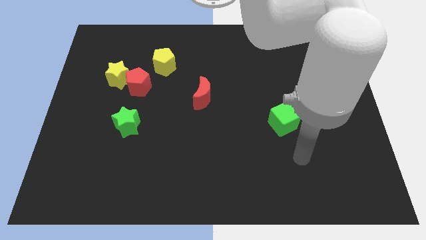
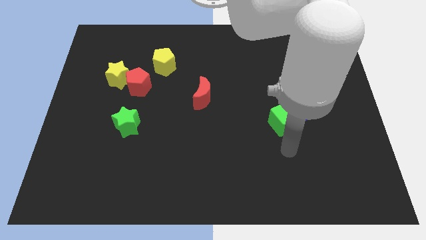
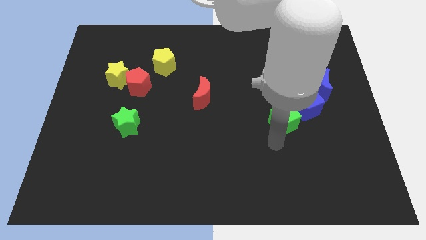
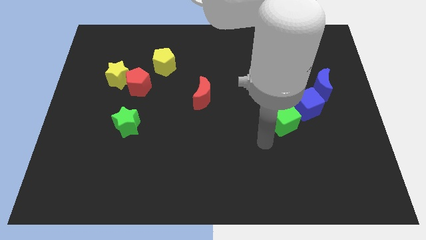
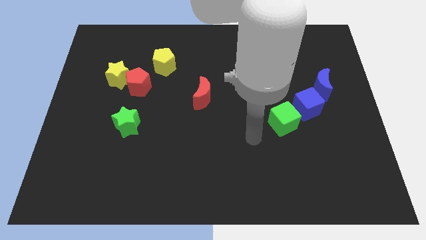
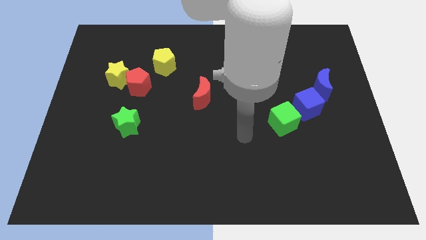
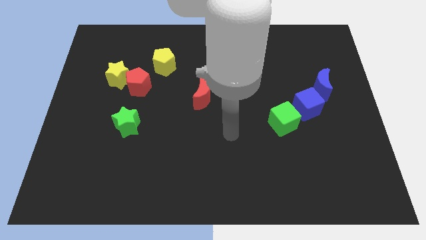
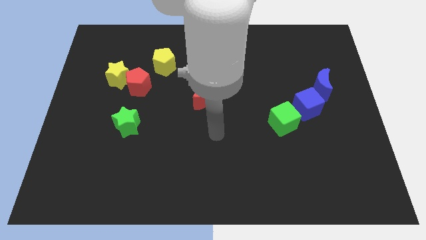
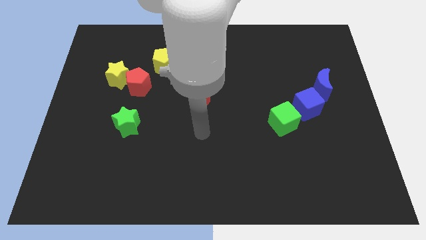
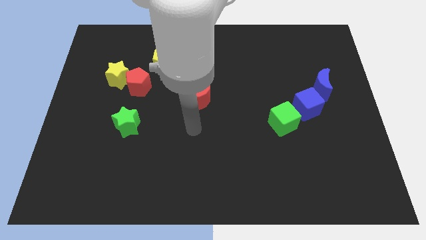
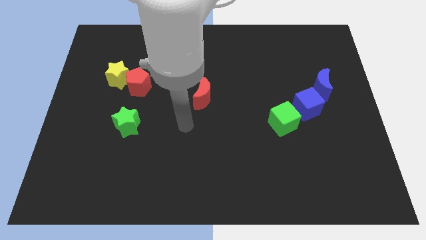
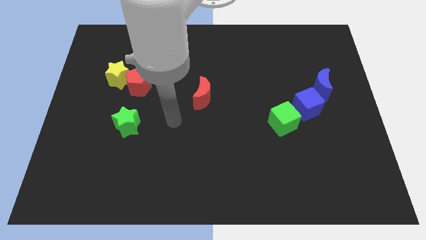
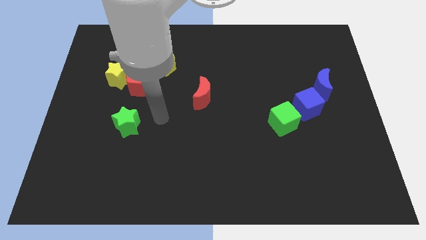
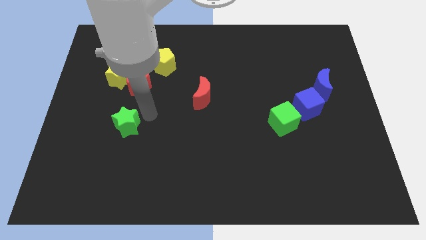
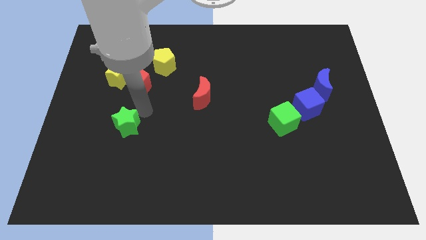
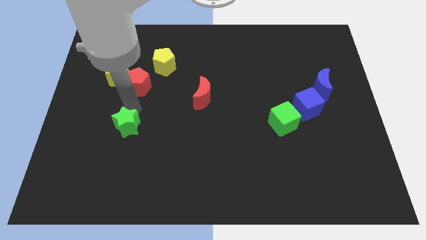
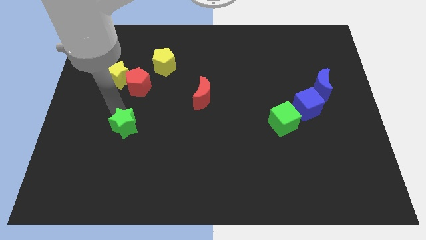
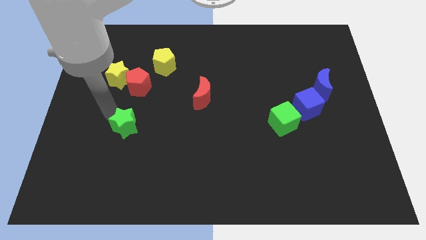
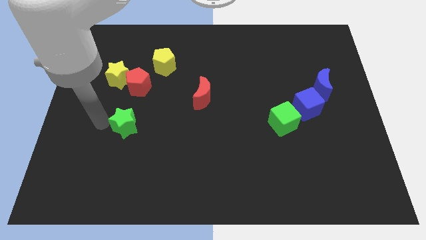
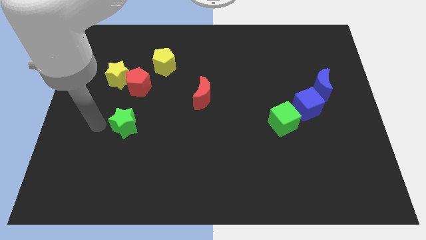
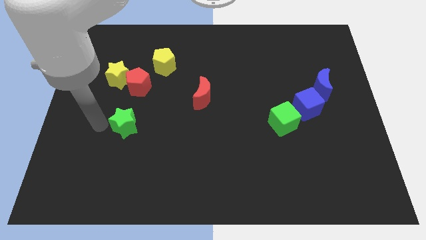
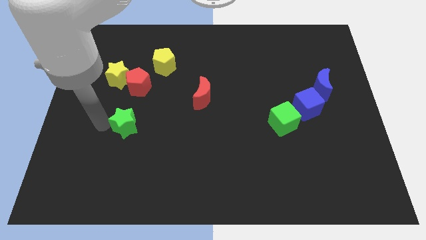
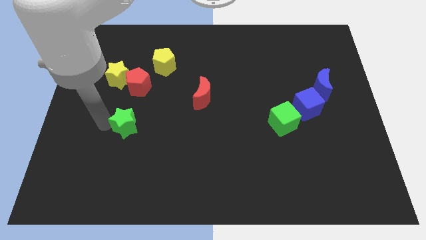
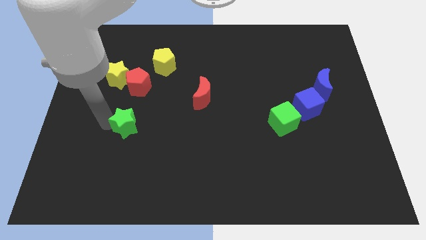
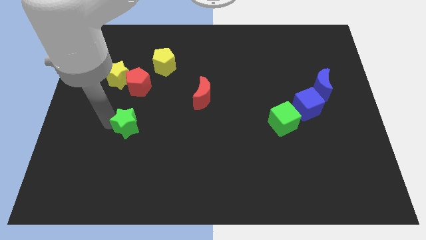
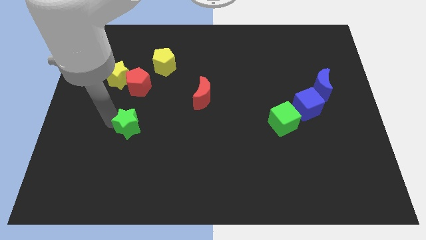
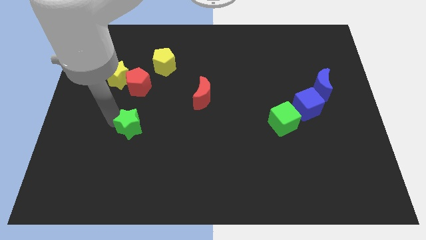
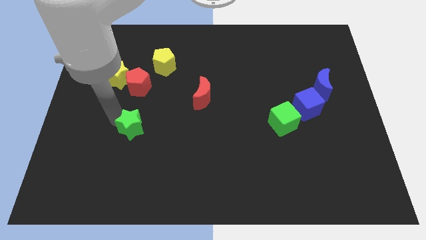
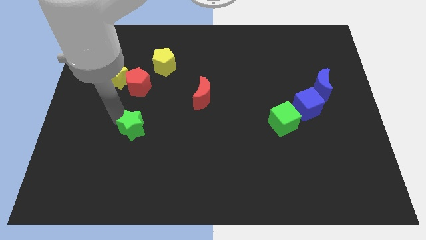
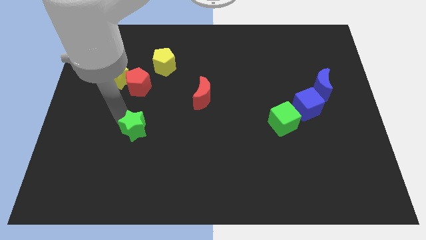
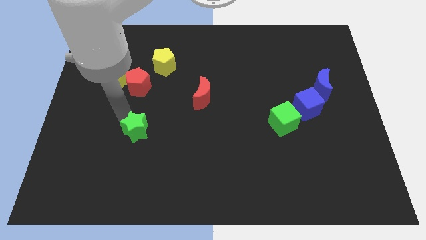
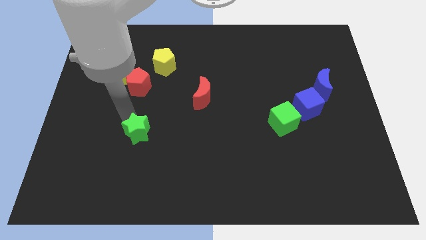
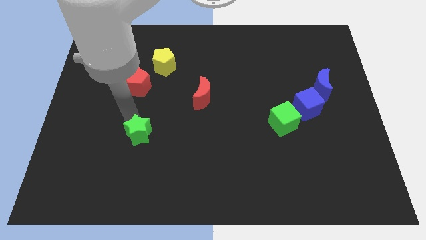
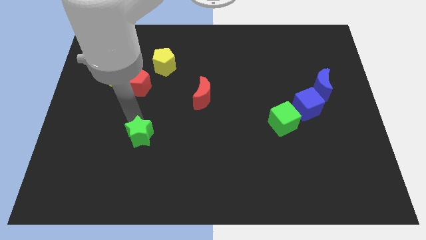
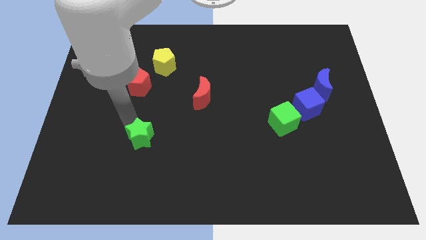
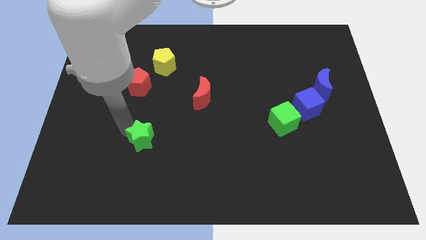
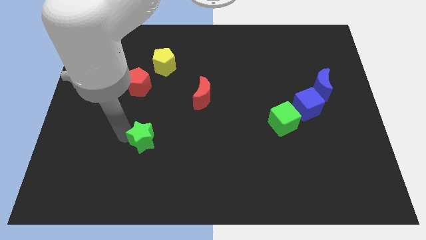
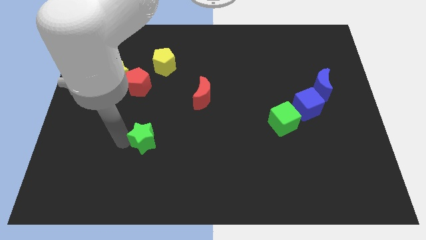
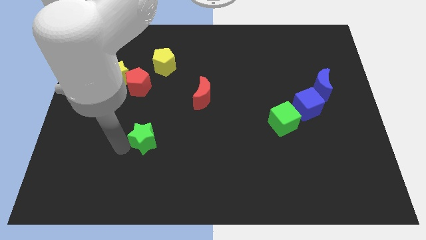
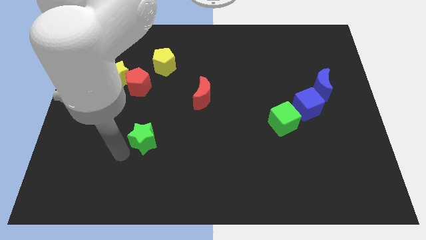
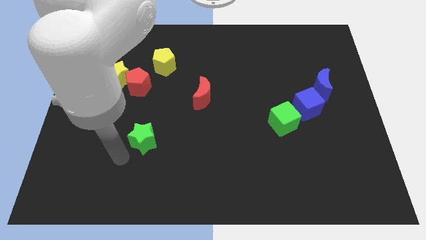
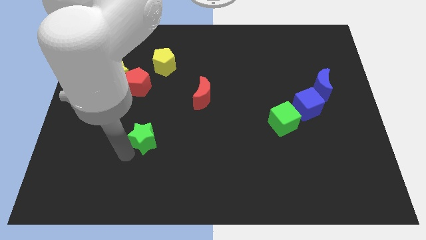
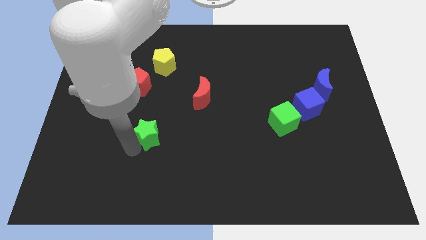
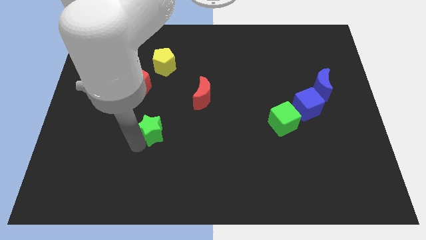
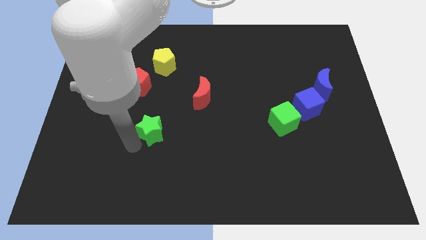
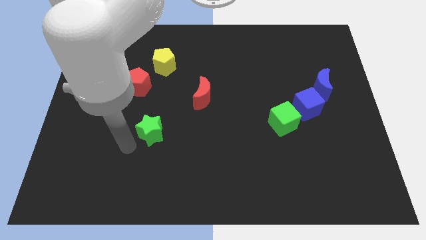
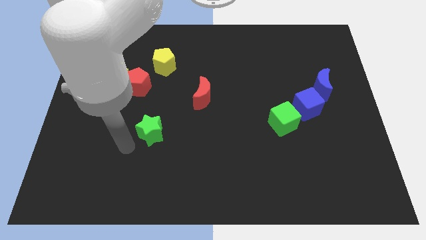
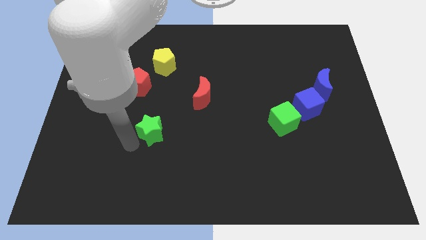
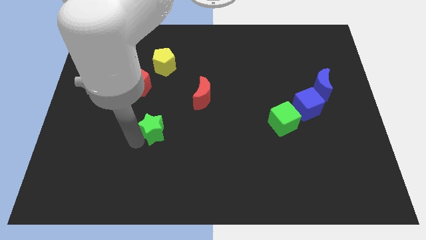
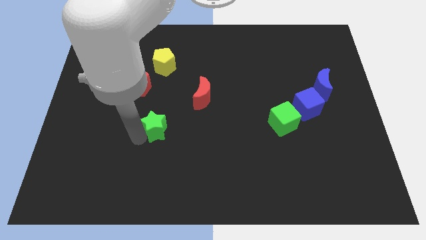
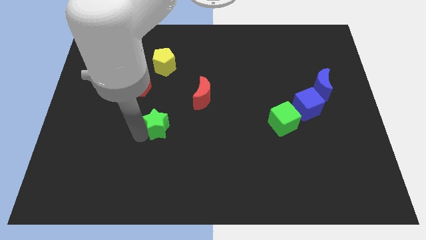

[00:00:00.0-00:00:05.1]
slightly move the green star to the right

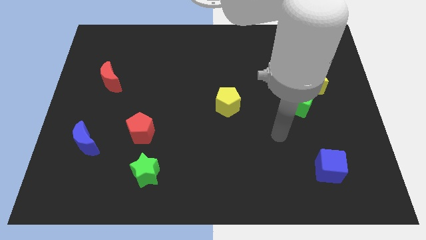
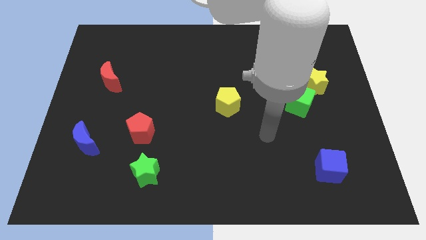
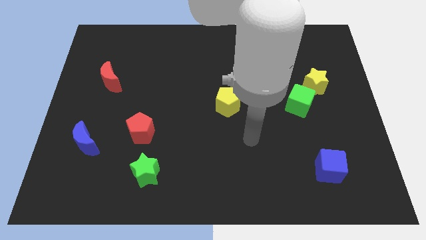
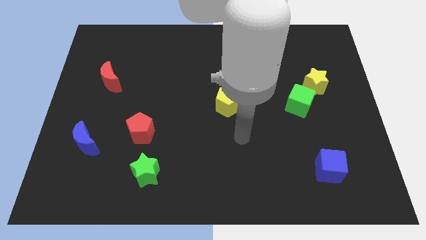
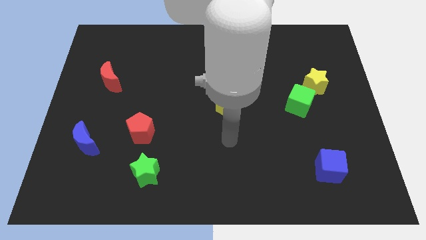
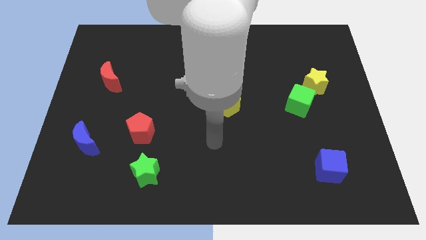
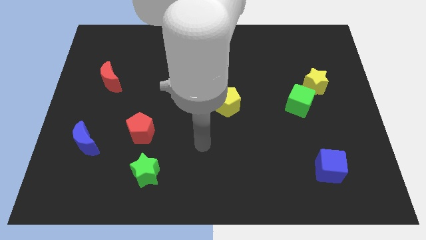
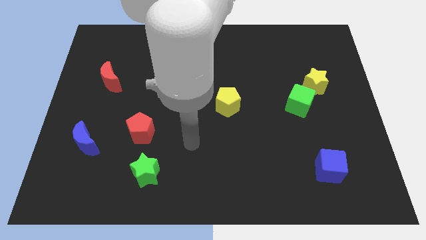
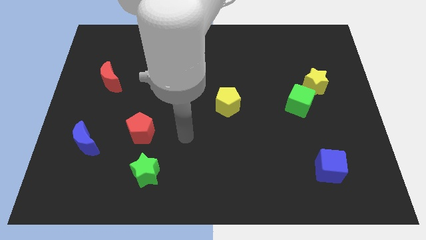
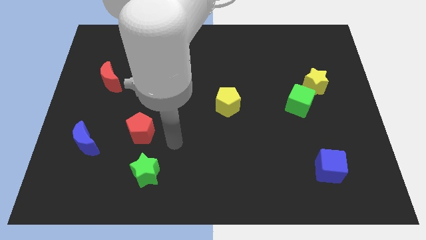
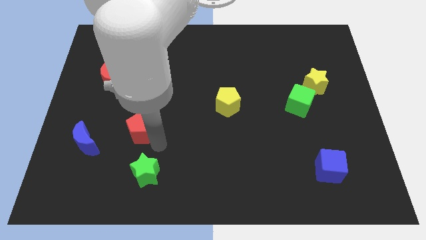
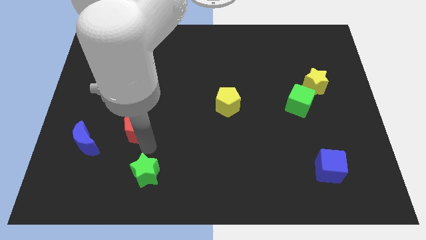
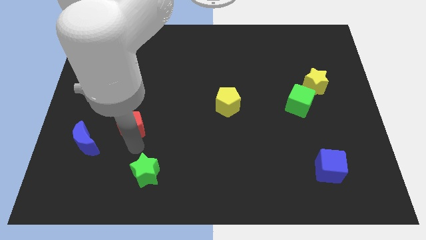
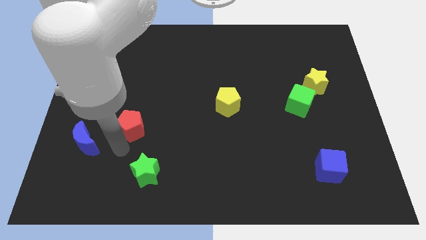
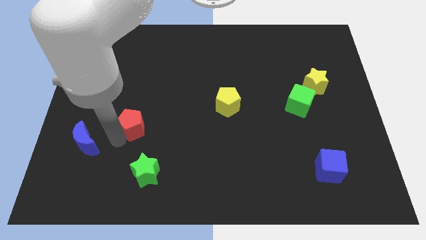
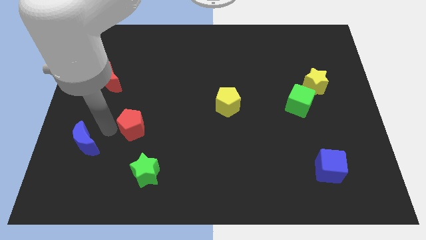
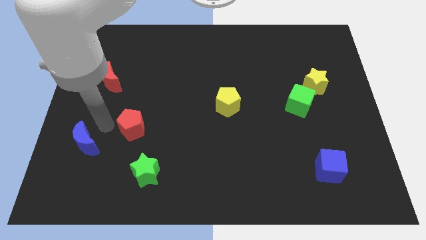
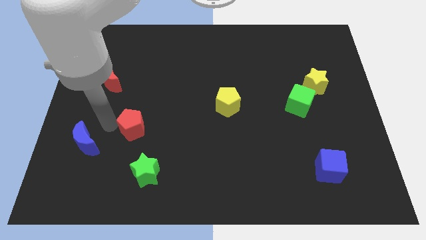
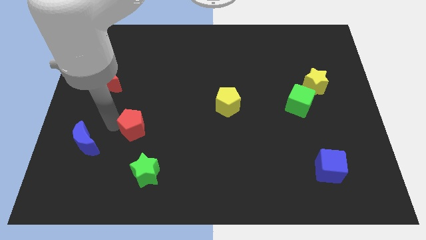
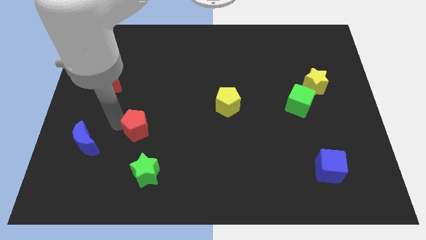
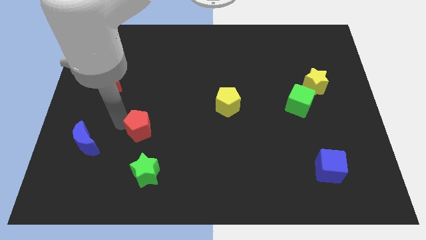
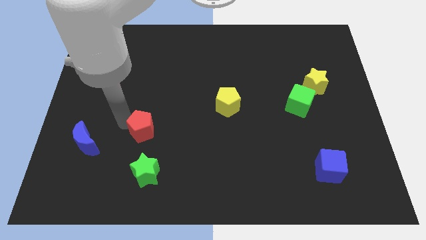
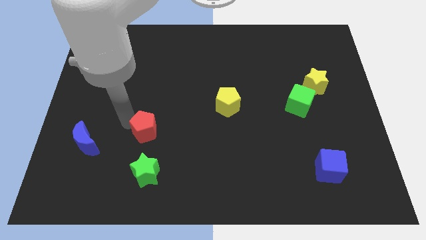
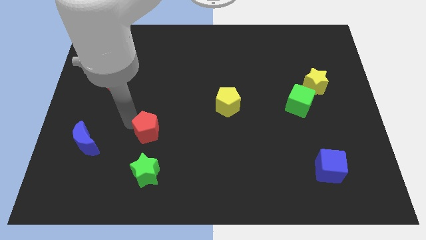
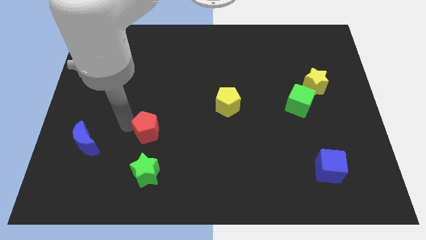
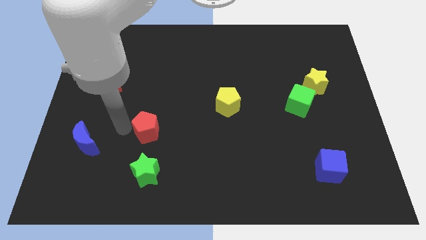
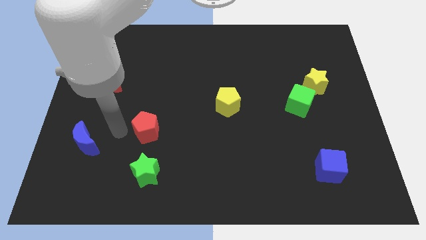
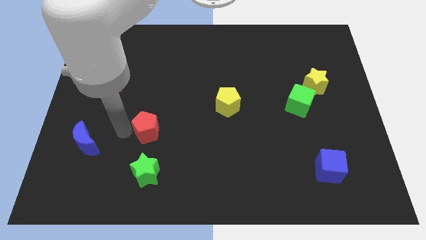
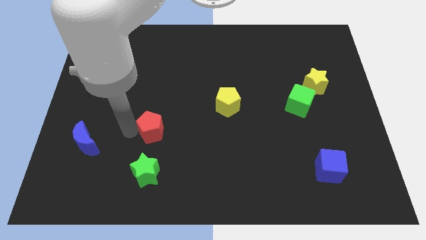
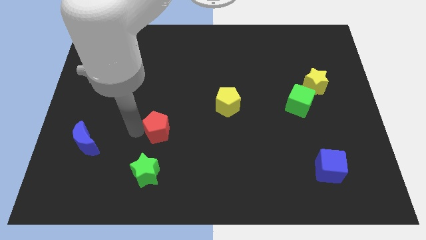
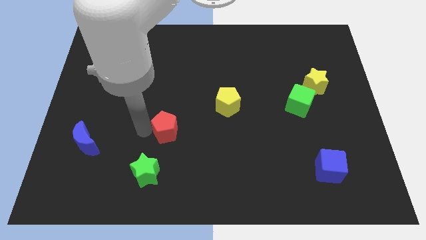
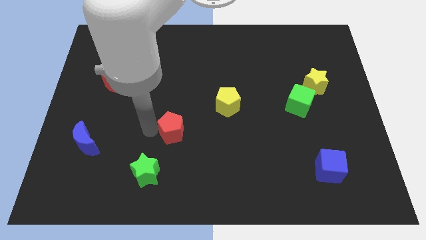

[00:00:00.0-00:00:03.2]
push the red pentagon right somewhat
